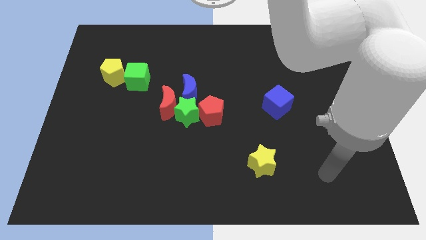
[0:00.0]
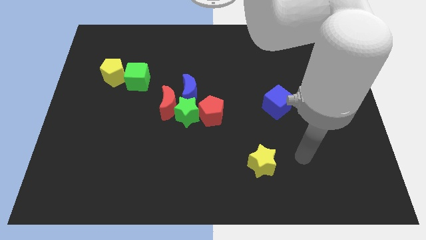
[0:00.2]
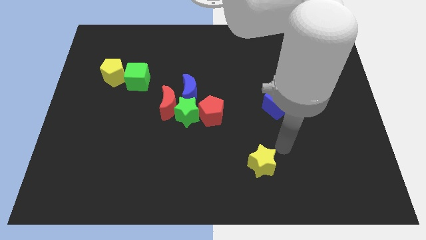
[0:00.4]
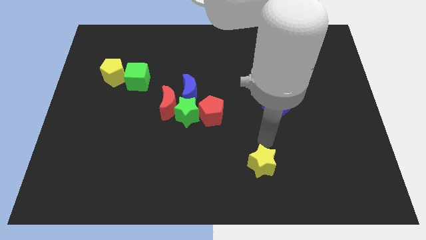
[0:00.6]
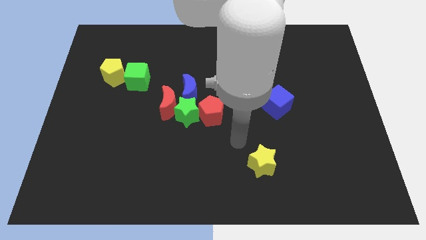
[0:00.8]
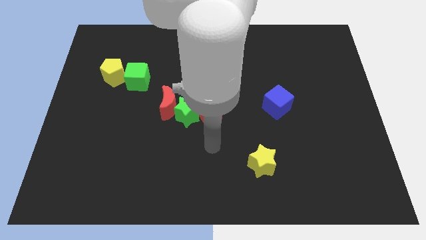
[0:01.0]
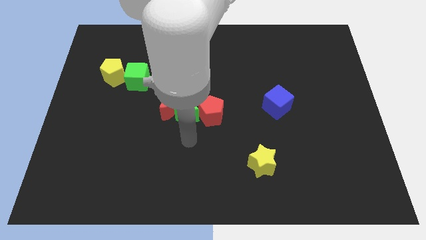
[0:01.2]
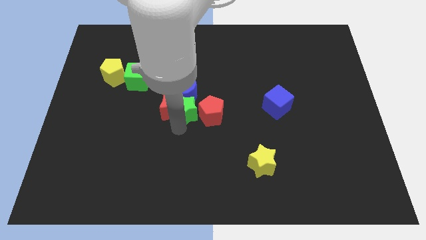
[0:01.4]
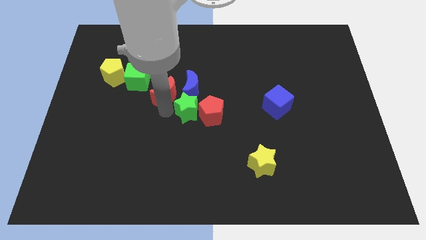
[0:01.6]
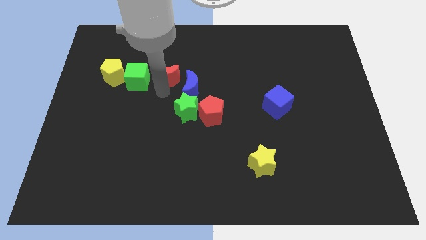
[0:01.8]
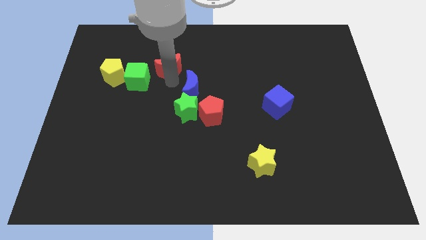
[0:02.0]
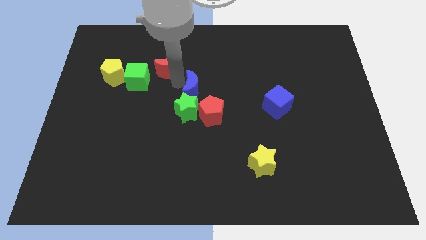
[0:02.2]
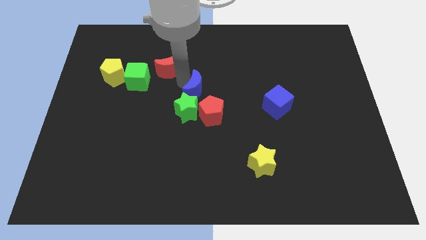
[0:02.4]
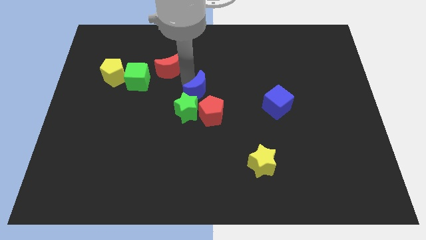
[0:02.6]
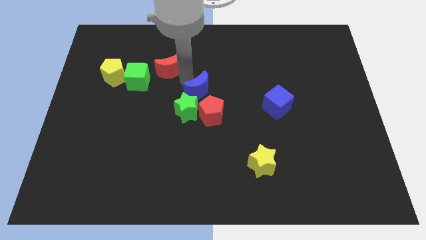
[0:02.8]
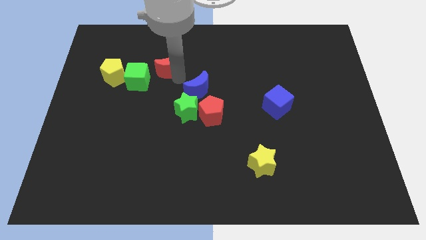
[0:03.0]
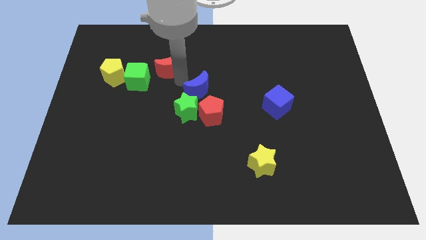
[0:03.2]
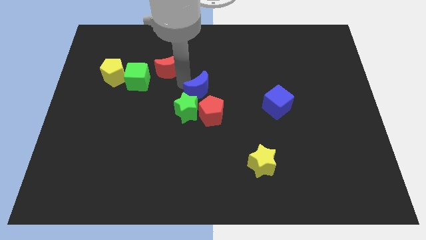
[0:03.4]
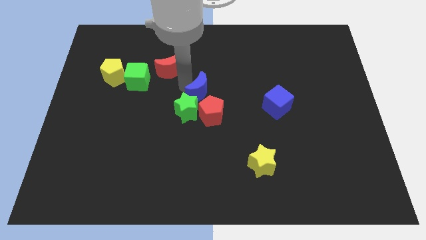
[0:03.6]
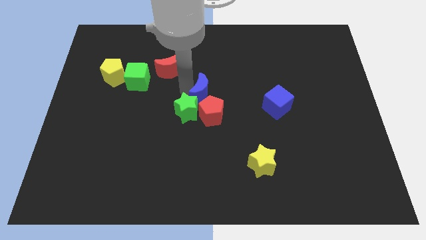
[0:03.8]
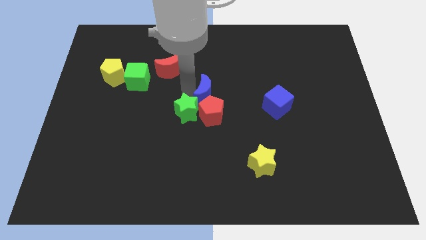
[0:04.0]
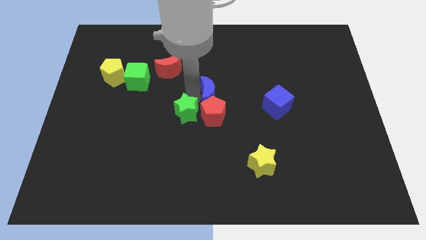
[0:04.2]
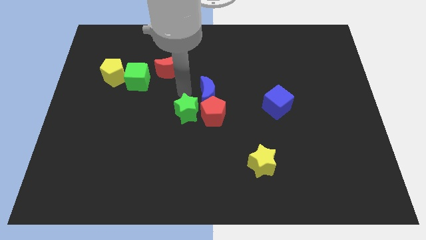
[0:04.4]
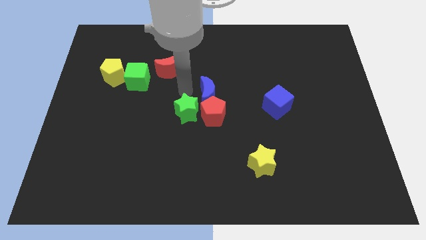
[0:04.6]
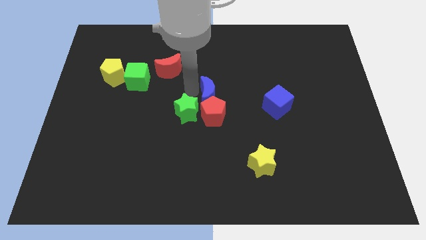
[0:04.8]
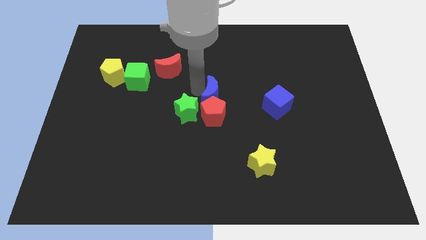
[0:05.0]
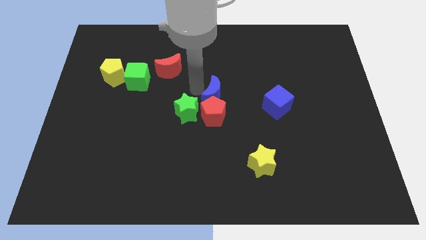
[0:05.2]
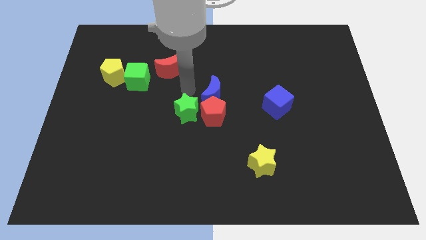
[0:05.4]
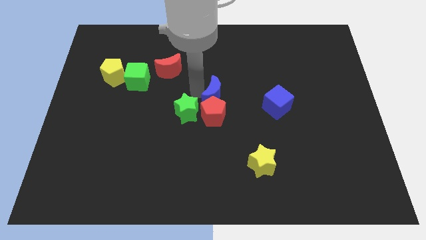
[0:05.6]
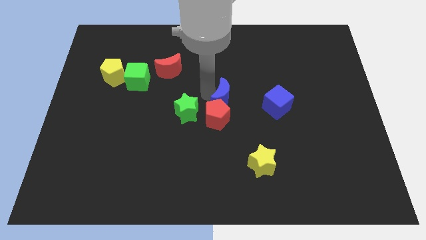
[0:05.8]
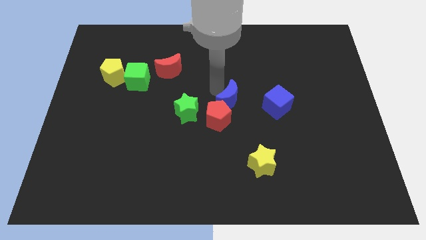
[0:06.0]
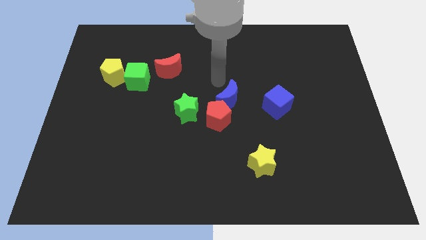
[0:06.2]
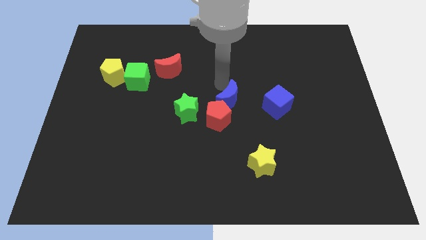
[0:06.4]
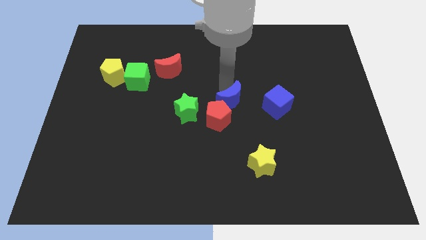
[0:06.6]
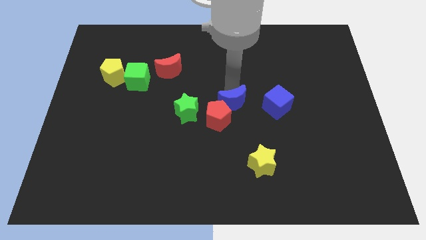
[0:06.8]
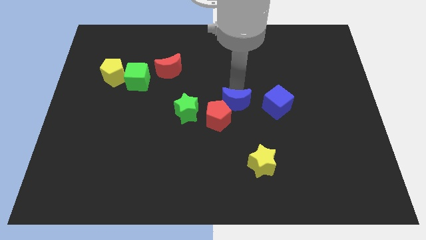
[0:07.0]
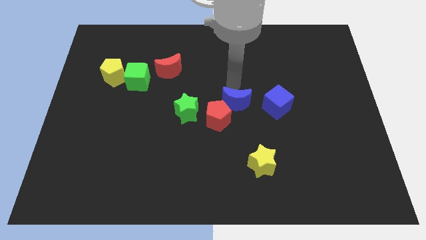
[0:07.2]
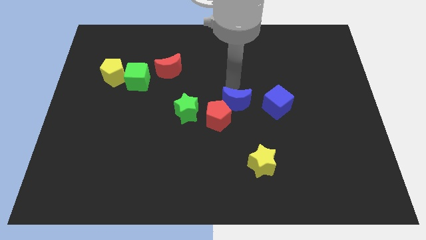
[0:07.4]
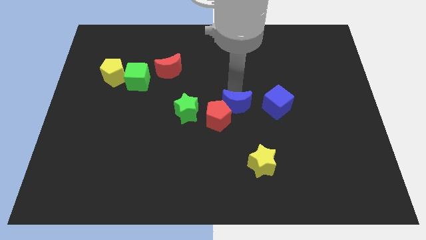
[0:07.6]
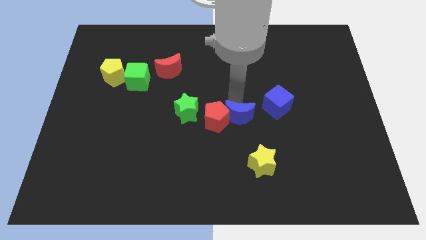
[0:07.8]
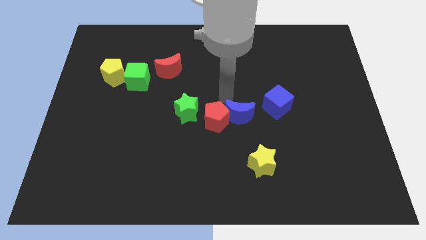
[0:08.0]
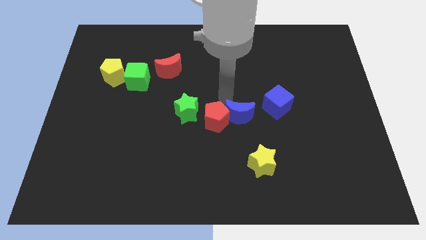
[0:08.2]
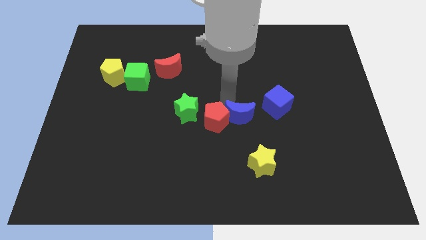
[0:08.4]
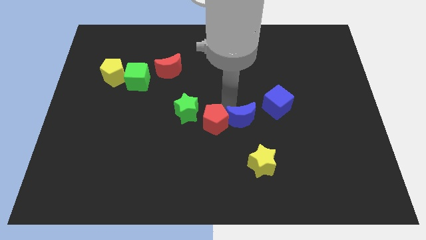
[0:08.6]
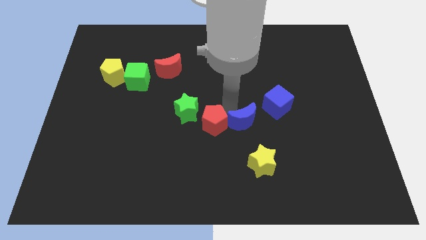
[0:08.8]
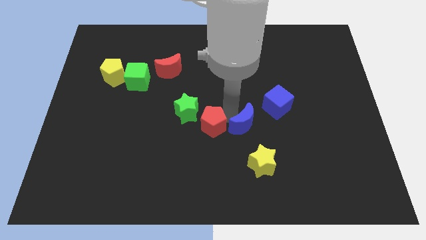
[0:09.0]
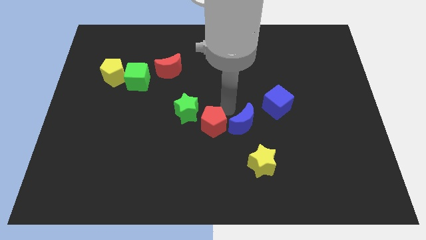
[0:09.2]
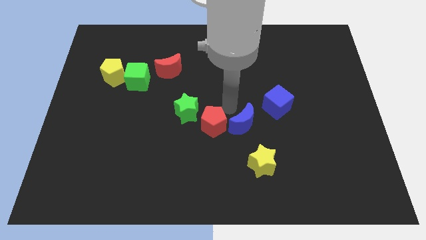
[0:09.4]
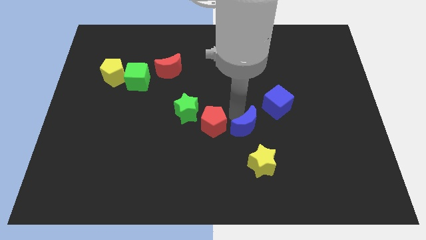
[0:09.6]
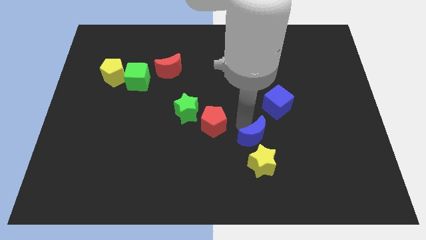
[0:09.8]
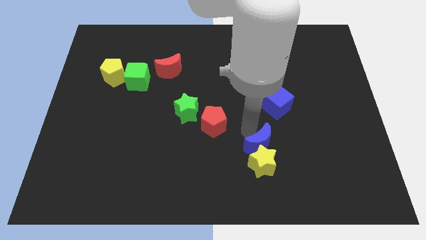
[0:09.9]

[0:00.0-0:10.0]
move the blue moon down and to the right

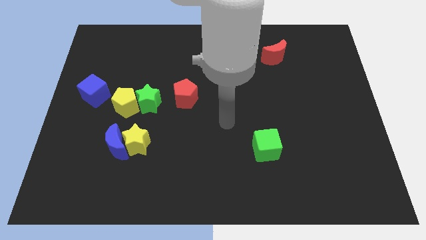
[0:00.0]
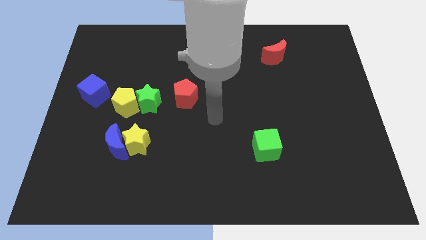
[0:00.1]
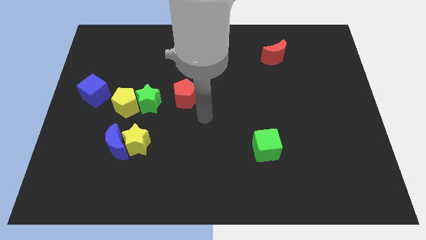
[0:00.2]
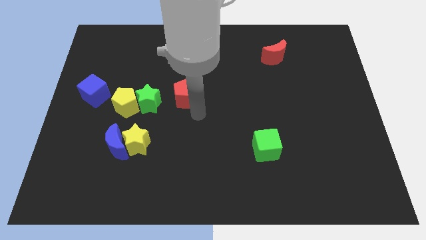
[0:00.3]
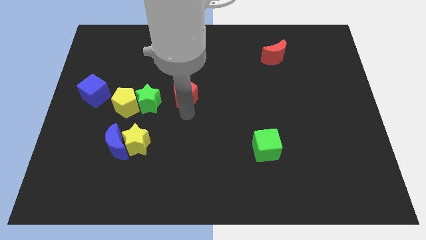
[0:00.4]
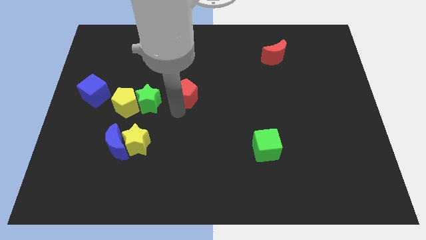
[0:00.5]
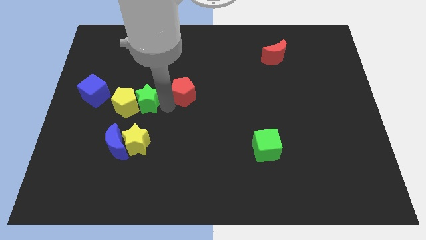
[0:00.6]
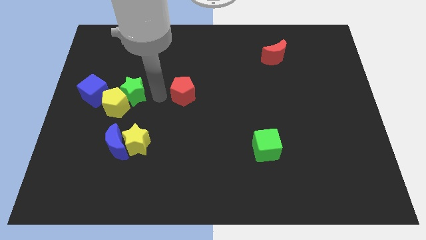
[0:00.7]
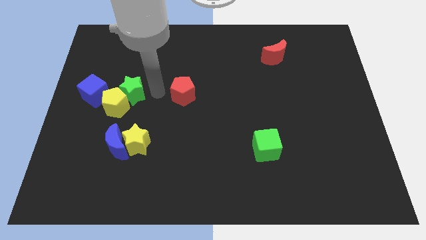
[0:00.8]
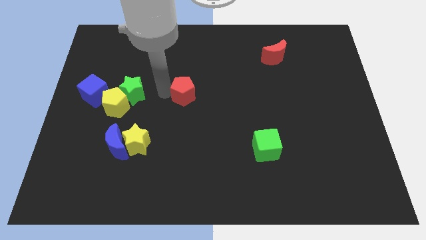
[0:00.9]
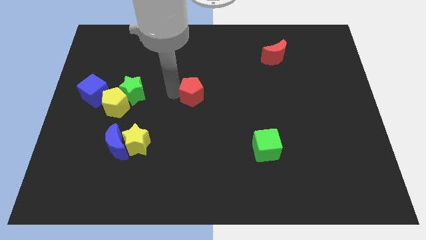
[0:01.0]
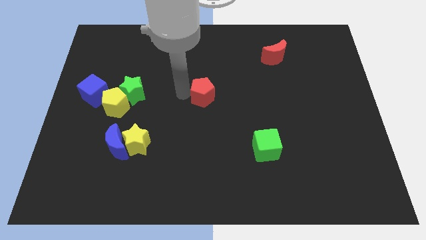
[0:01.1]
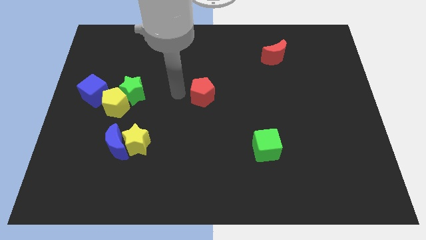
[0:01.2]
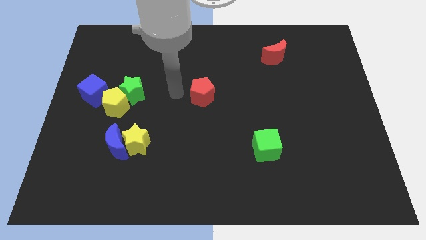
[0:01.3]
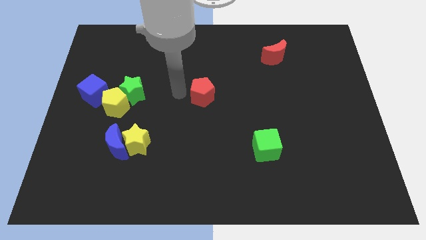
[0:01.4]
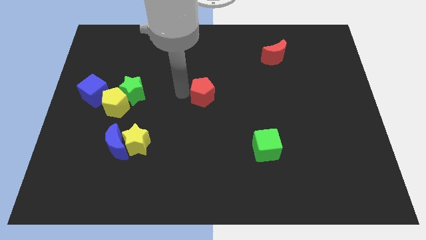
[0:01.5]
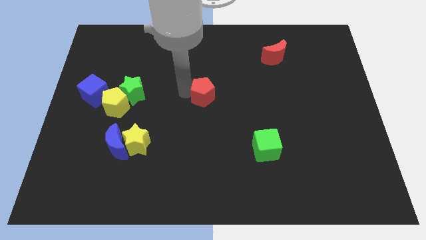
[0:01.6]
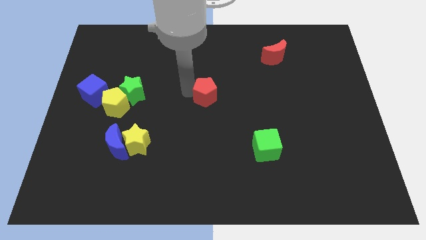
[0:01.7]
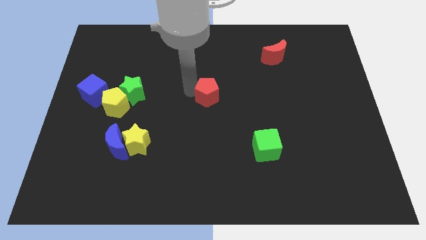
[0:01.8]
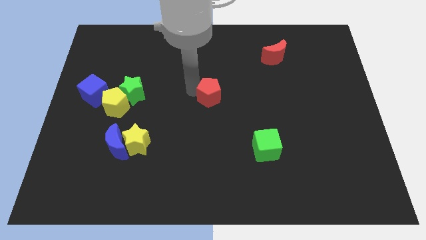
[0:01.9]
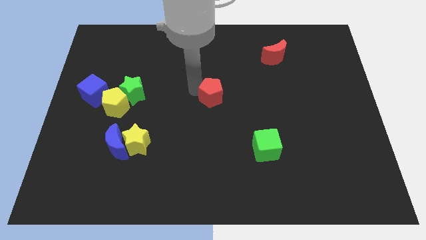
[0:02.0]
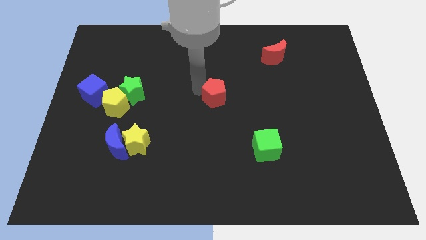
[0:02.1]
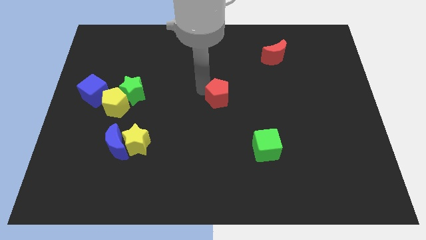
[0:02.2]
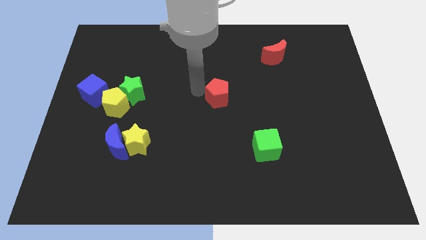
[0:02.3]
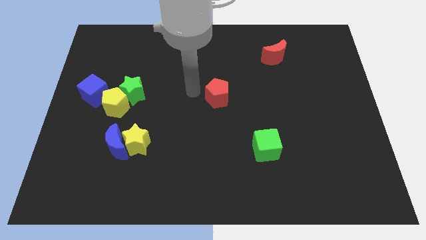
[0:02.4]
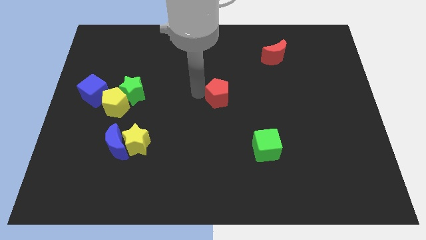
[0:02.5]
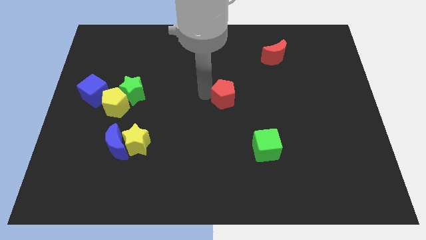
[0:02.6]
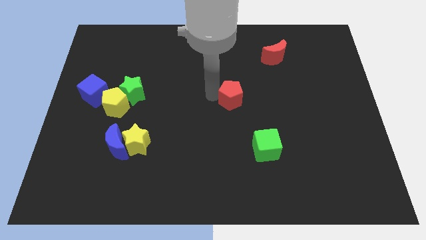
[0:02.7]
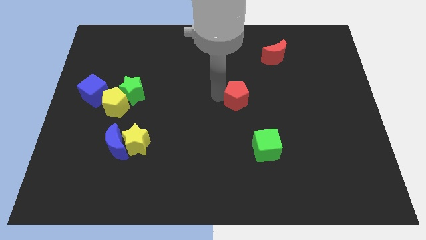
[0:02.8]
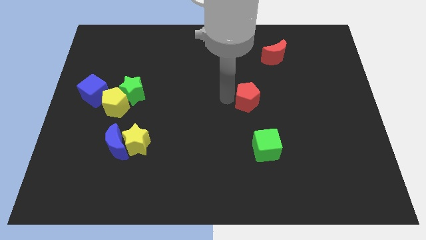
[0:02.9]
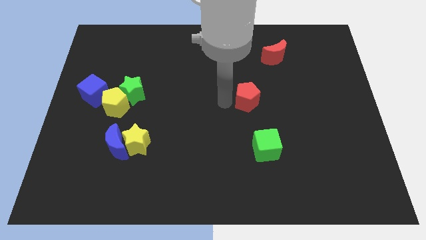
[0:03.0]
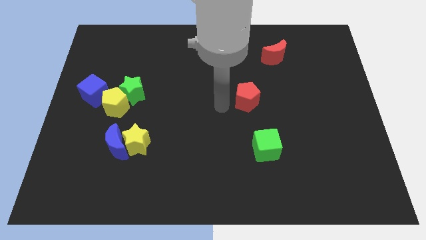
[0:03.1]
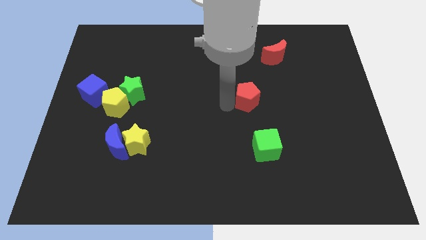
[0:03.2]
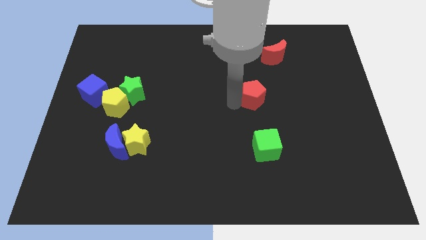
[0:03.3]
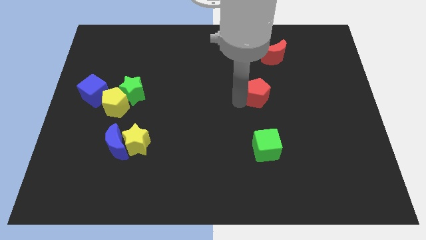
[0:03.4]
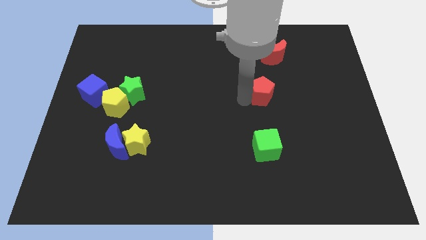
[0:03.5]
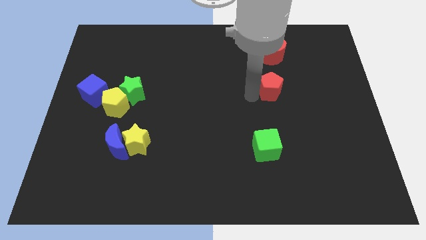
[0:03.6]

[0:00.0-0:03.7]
push the red pentagon to the right
